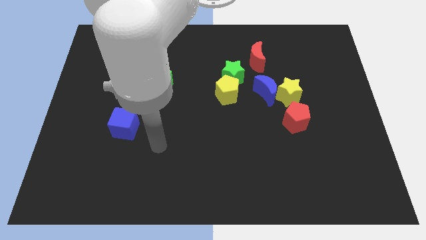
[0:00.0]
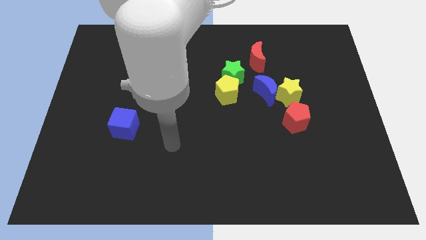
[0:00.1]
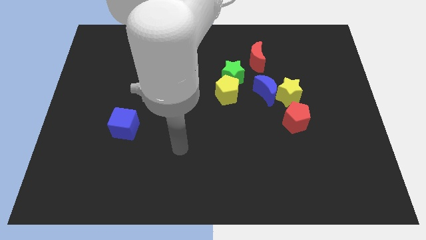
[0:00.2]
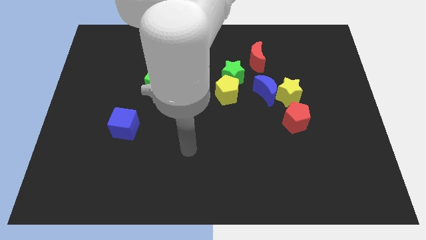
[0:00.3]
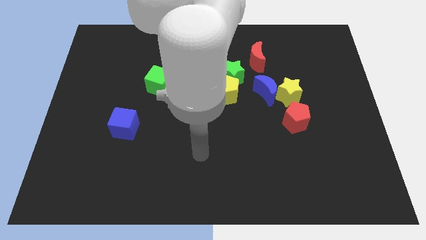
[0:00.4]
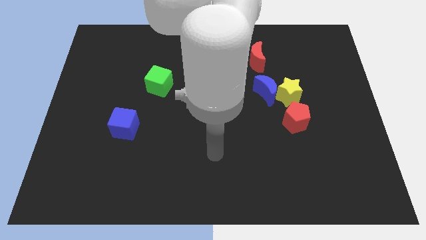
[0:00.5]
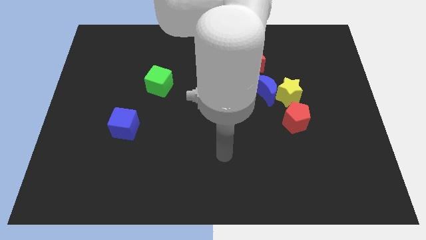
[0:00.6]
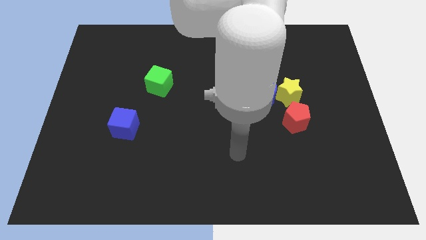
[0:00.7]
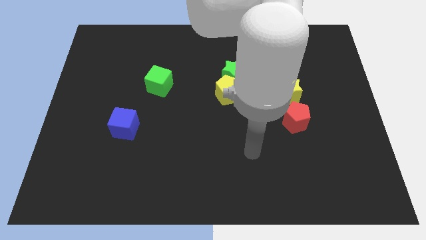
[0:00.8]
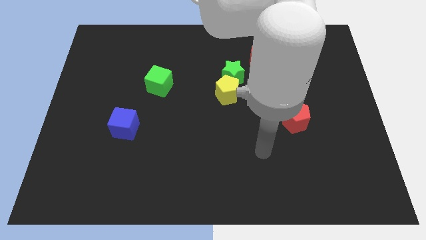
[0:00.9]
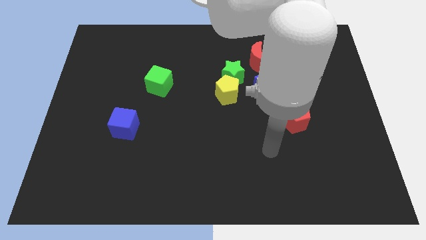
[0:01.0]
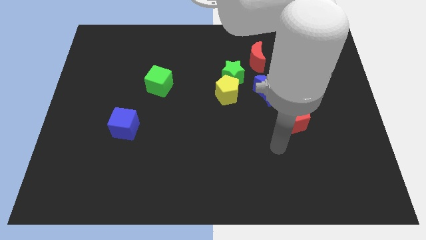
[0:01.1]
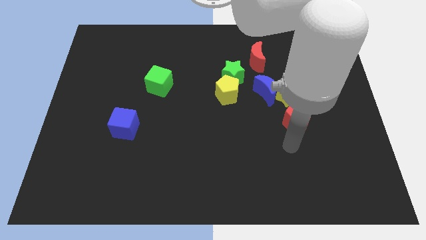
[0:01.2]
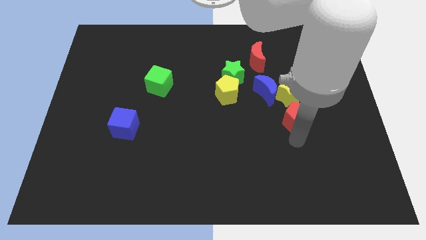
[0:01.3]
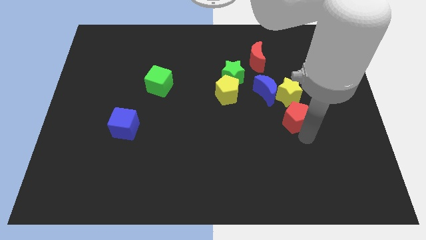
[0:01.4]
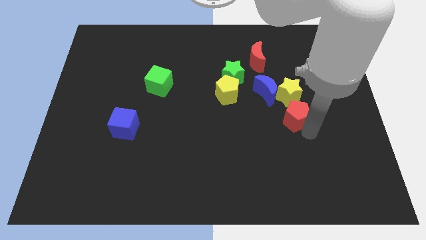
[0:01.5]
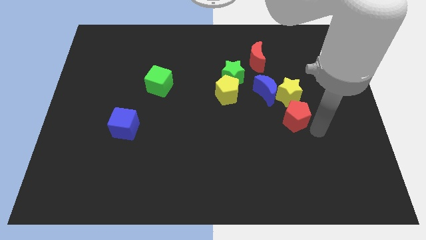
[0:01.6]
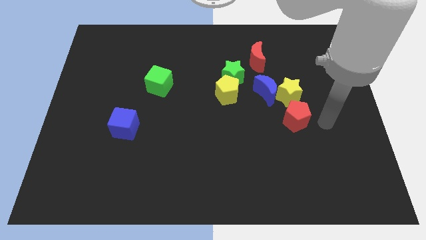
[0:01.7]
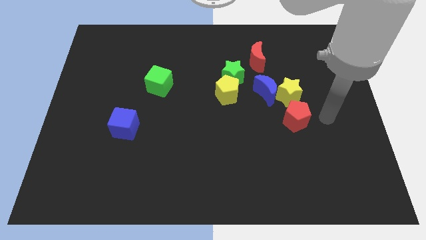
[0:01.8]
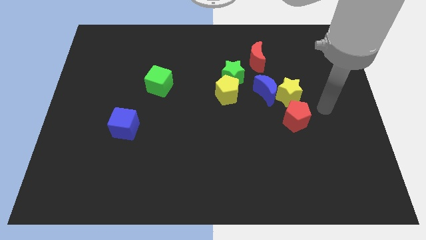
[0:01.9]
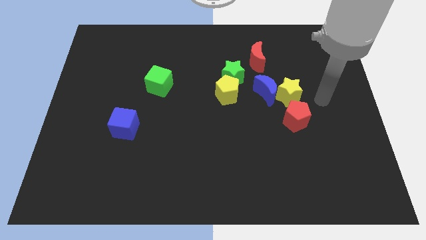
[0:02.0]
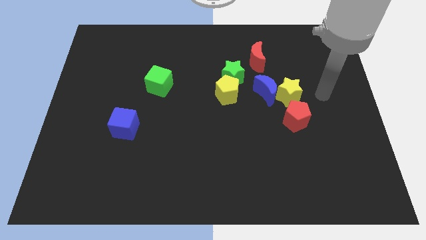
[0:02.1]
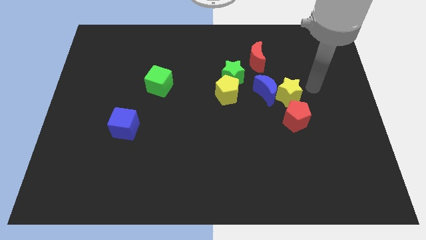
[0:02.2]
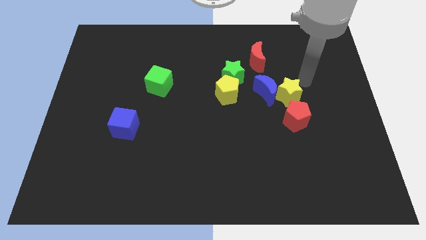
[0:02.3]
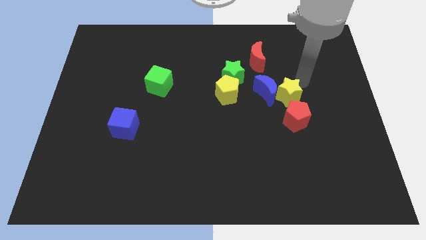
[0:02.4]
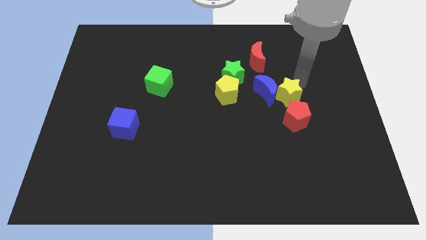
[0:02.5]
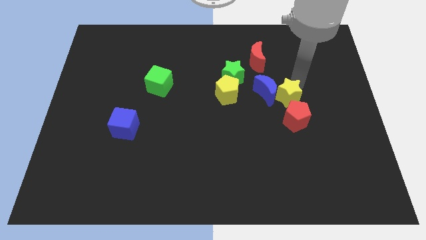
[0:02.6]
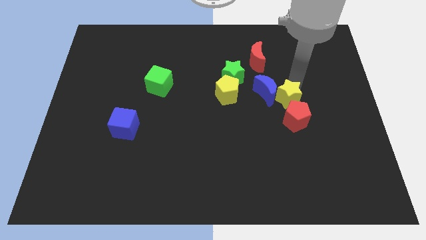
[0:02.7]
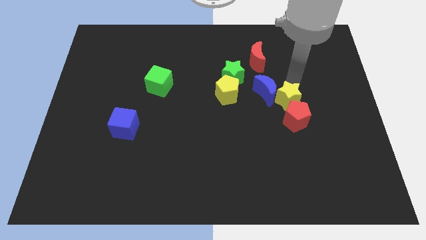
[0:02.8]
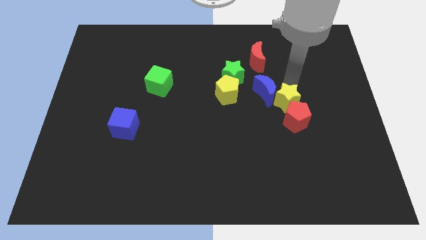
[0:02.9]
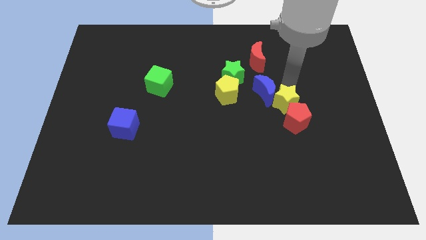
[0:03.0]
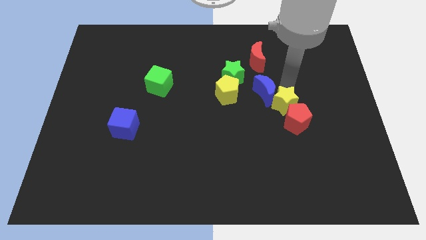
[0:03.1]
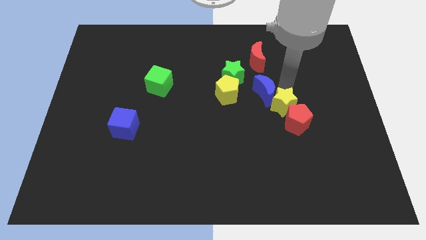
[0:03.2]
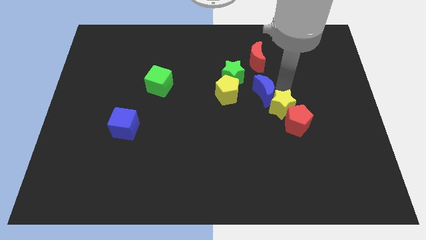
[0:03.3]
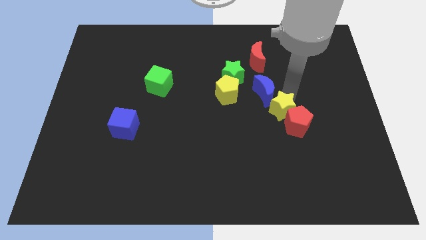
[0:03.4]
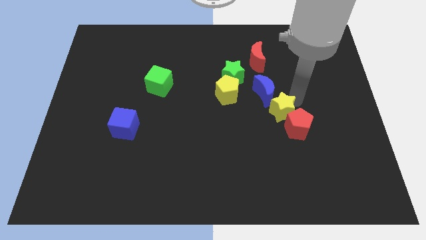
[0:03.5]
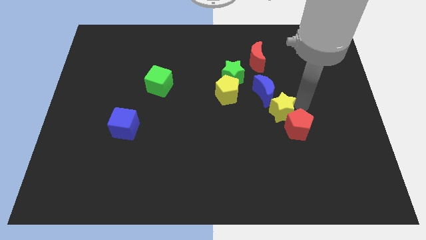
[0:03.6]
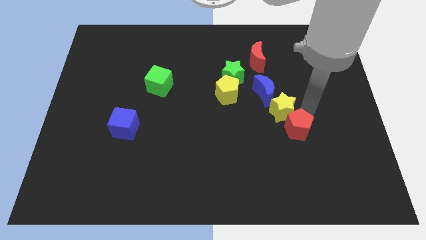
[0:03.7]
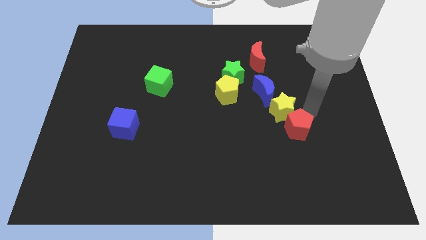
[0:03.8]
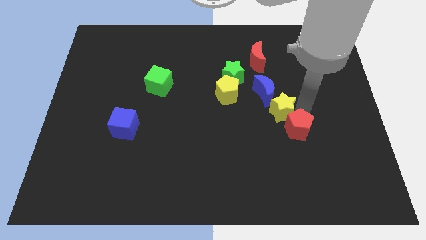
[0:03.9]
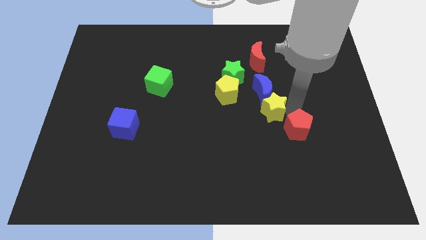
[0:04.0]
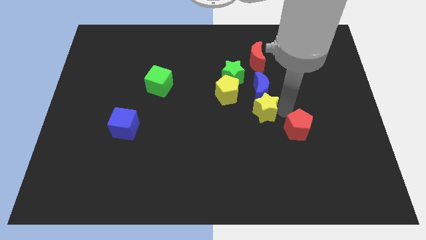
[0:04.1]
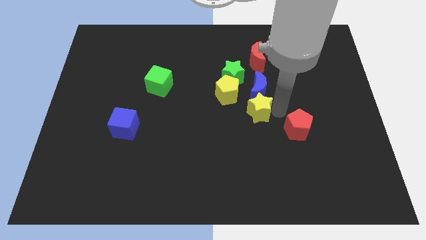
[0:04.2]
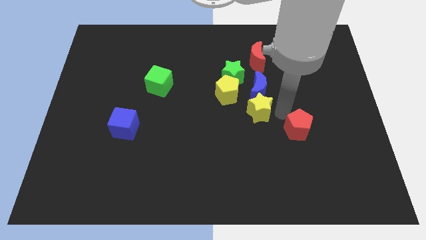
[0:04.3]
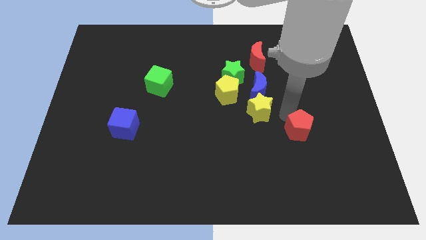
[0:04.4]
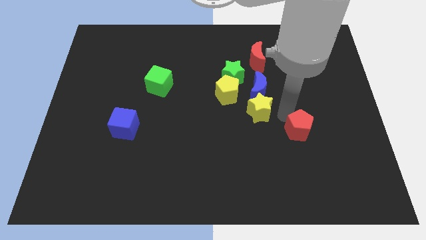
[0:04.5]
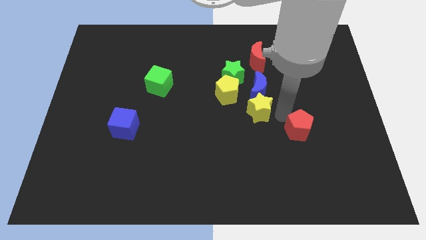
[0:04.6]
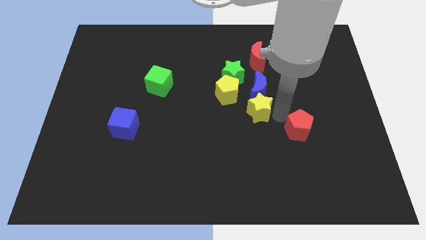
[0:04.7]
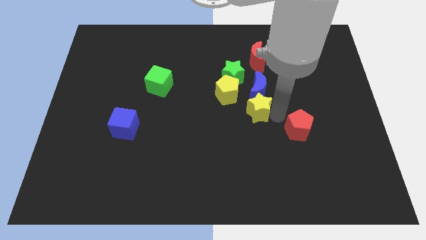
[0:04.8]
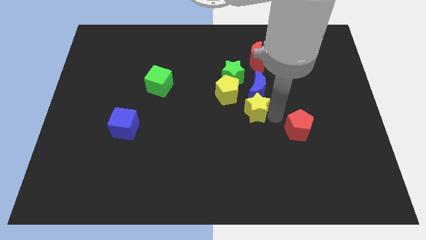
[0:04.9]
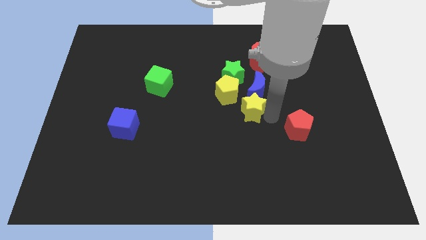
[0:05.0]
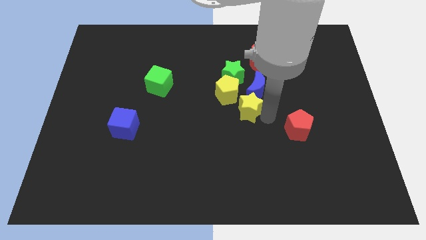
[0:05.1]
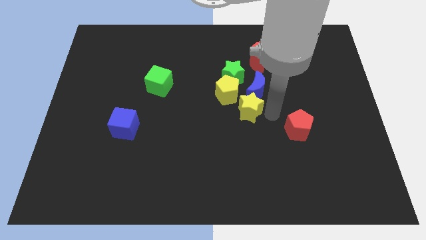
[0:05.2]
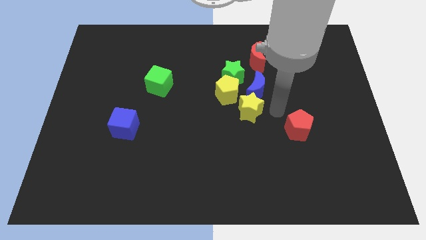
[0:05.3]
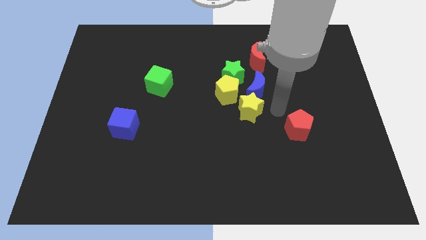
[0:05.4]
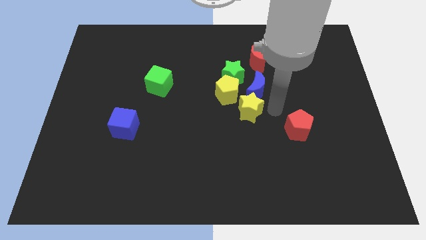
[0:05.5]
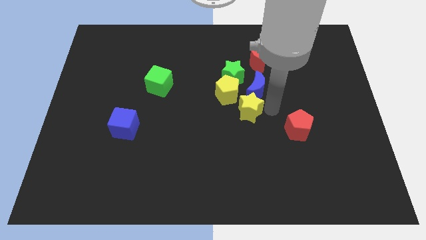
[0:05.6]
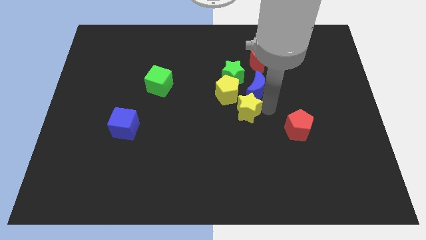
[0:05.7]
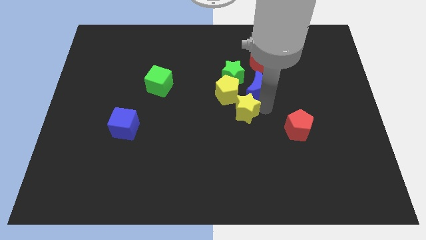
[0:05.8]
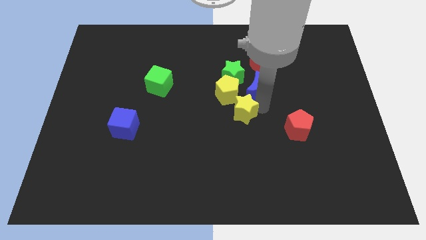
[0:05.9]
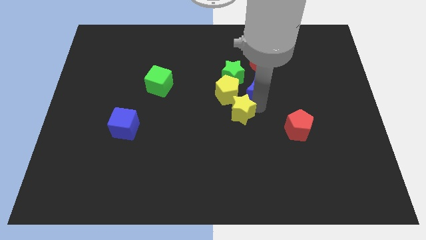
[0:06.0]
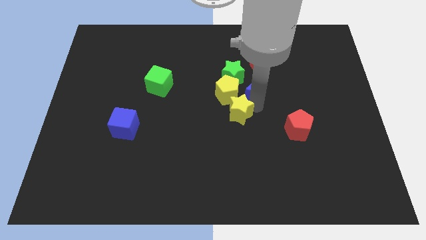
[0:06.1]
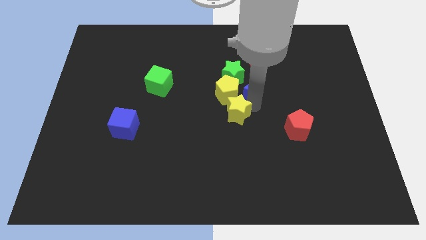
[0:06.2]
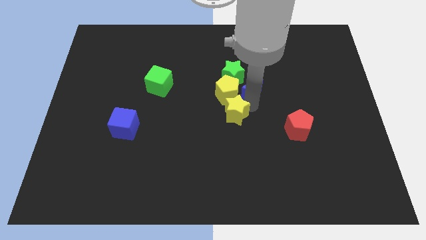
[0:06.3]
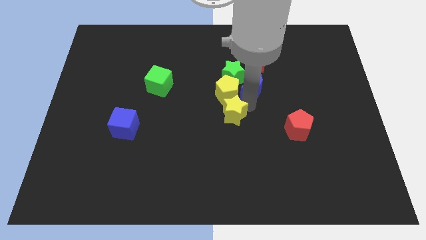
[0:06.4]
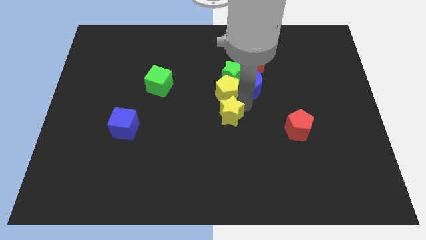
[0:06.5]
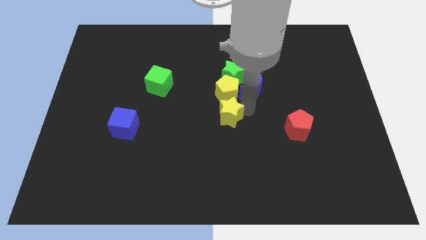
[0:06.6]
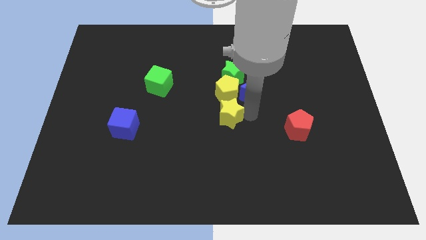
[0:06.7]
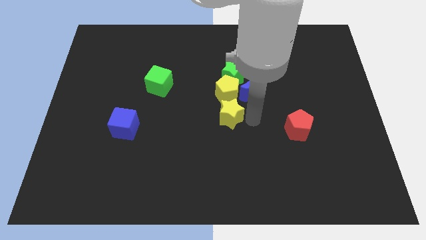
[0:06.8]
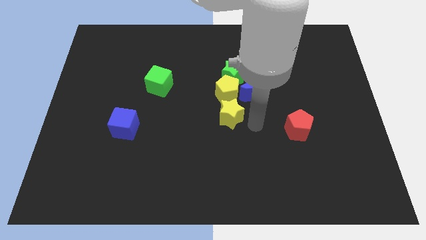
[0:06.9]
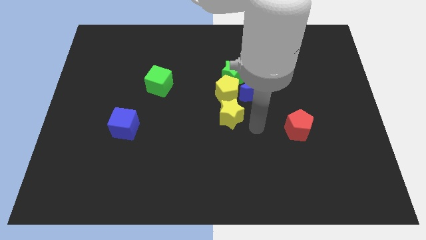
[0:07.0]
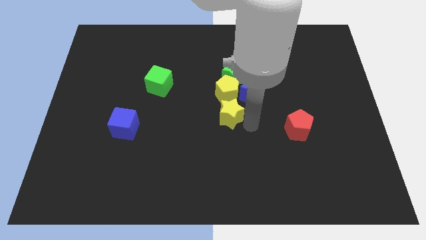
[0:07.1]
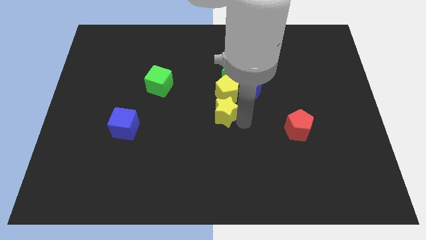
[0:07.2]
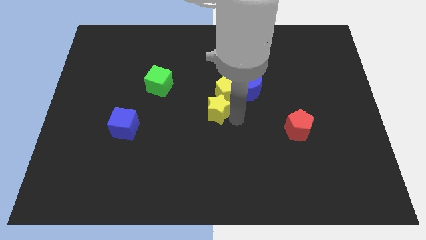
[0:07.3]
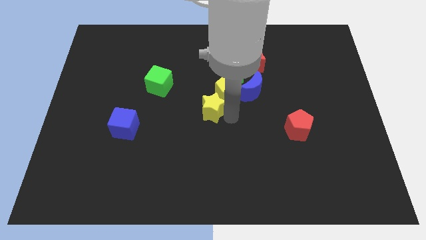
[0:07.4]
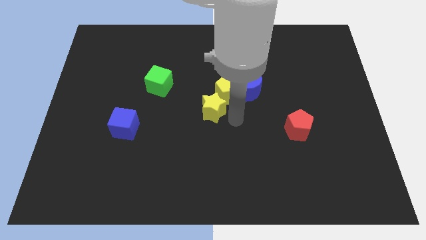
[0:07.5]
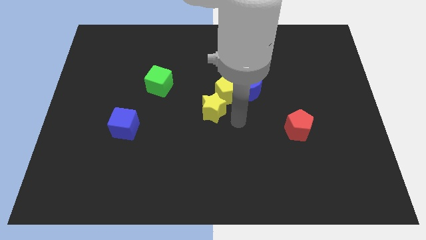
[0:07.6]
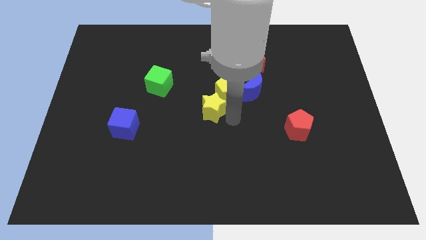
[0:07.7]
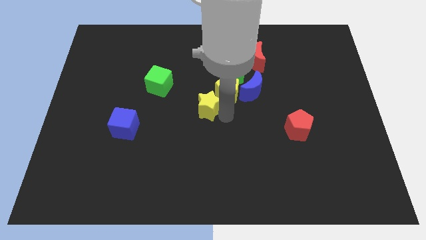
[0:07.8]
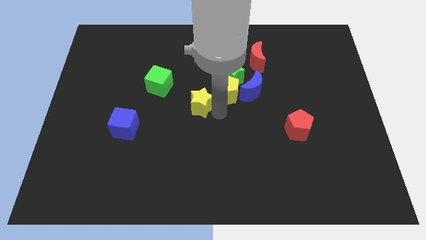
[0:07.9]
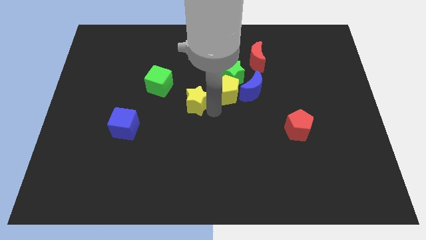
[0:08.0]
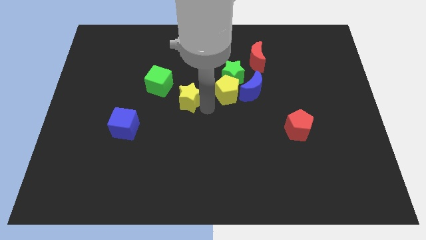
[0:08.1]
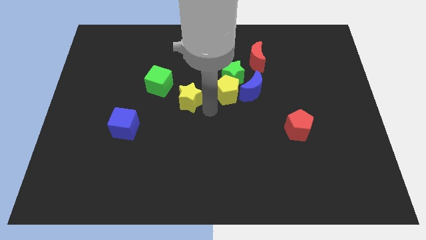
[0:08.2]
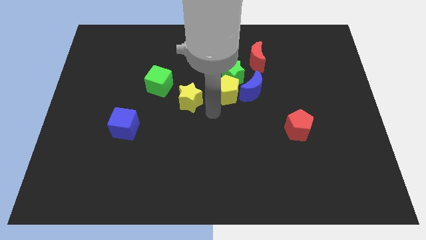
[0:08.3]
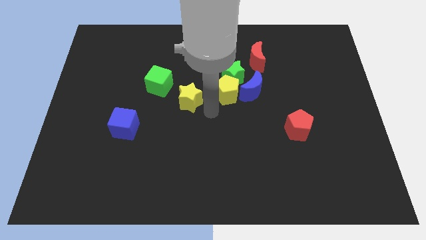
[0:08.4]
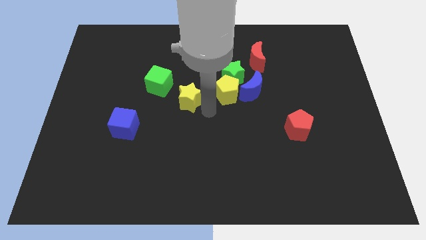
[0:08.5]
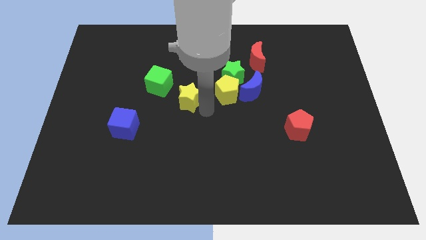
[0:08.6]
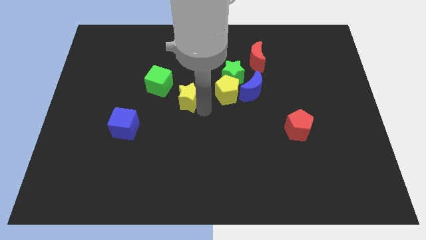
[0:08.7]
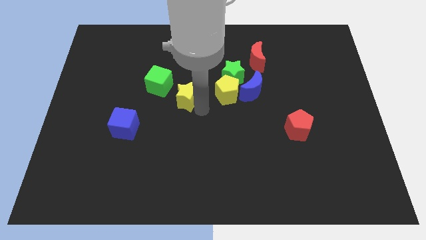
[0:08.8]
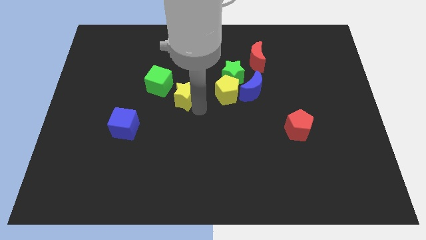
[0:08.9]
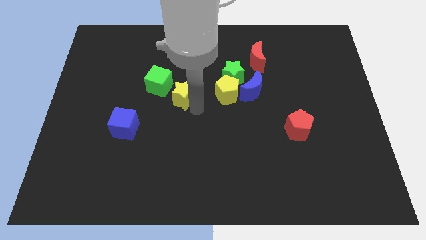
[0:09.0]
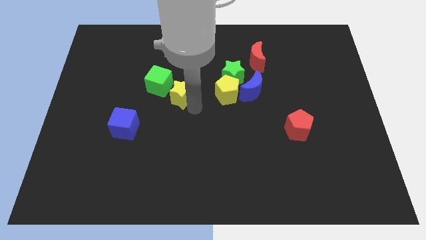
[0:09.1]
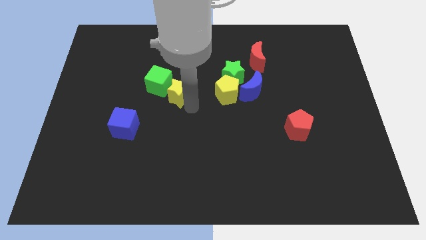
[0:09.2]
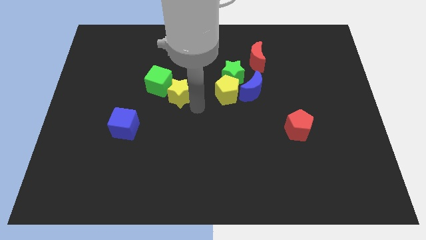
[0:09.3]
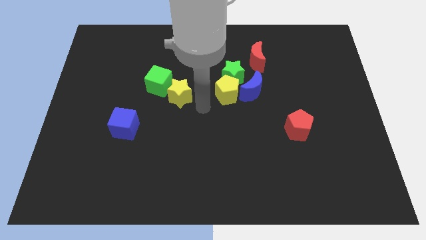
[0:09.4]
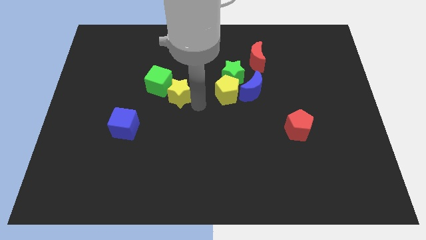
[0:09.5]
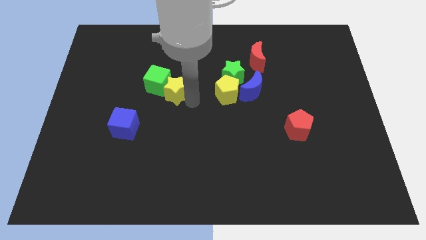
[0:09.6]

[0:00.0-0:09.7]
move the yellow star towards the green cube
